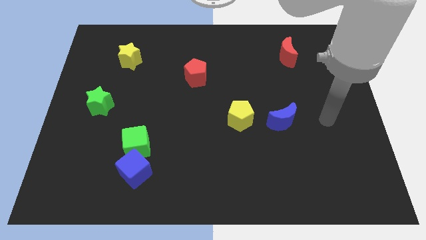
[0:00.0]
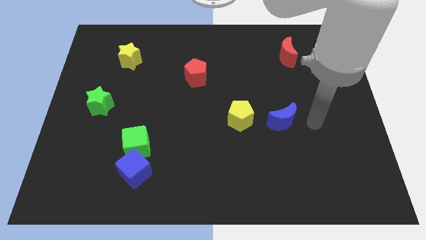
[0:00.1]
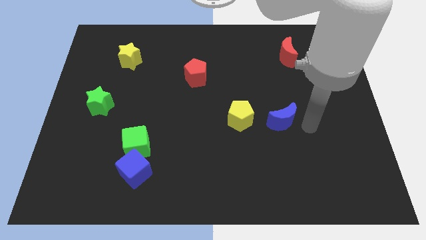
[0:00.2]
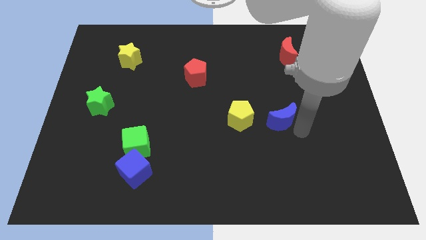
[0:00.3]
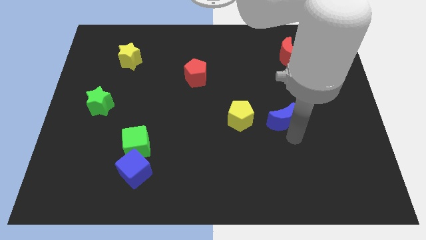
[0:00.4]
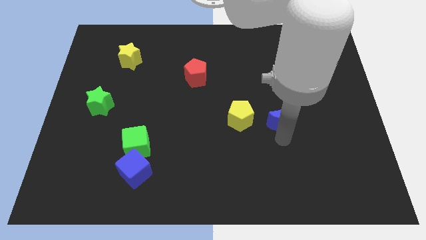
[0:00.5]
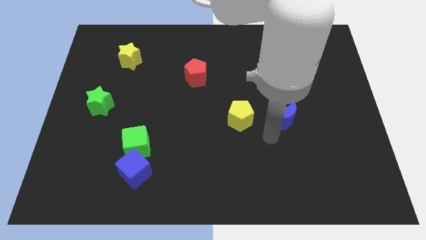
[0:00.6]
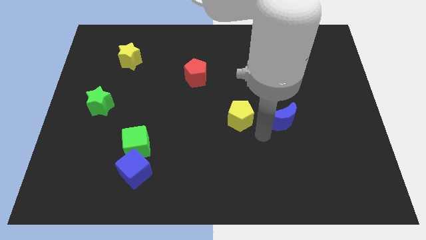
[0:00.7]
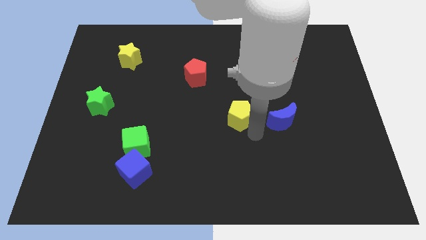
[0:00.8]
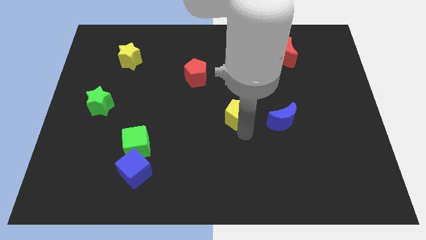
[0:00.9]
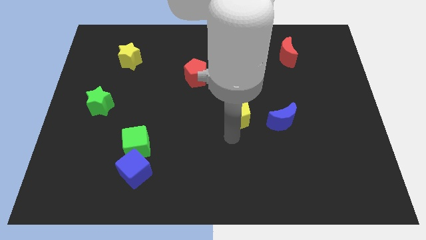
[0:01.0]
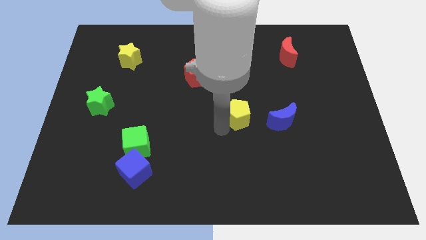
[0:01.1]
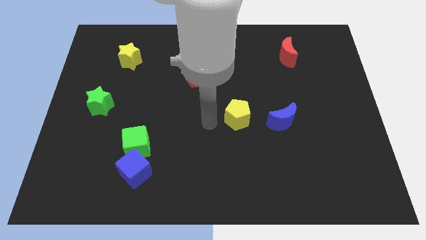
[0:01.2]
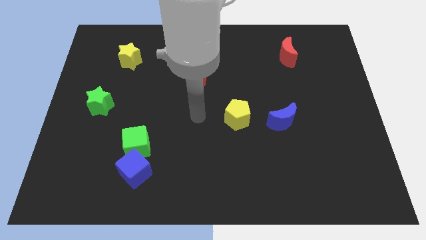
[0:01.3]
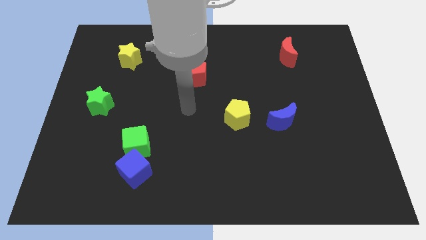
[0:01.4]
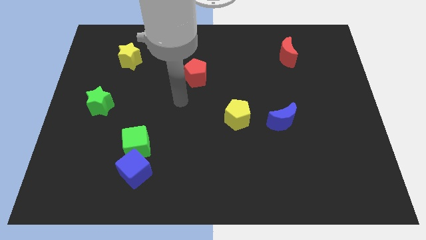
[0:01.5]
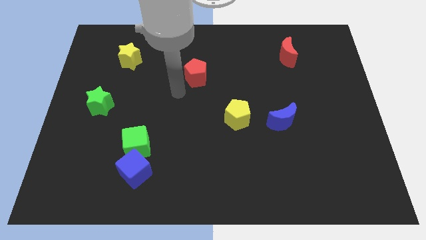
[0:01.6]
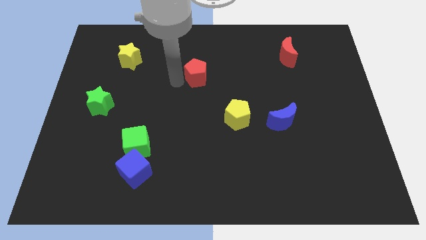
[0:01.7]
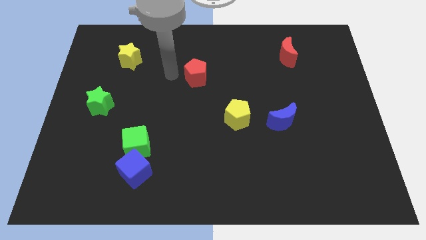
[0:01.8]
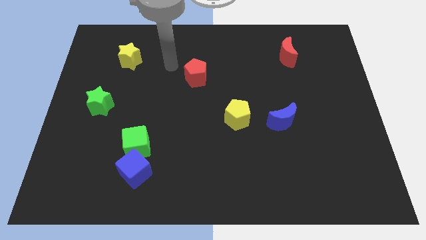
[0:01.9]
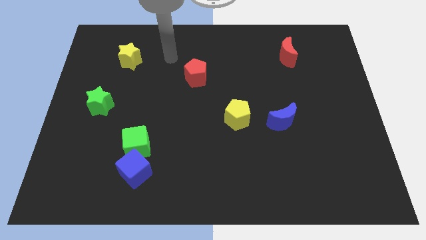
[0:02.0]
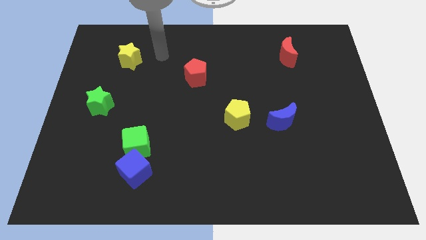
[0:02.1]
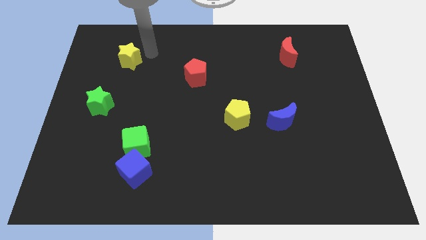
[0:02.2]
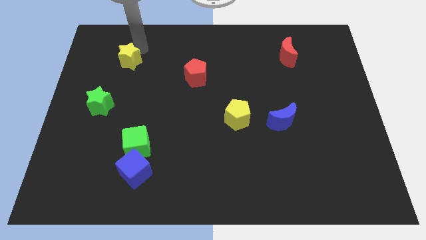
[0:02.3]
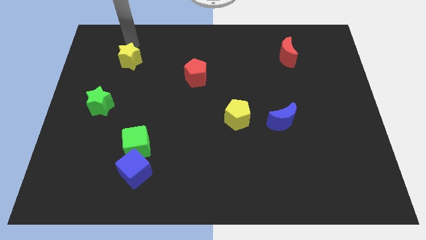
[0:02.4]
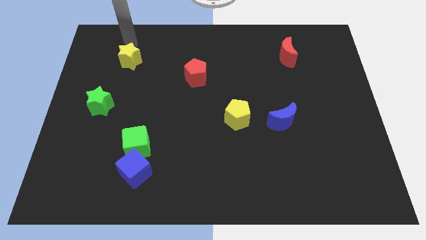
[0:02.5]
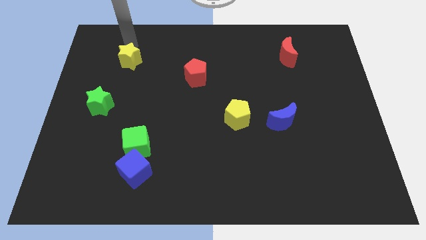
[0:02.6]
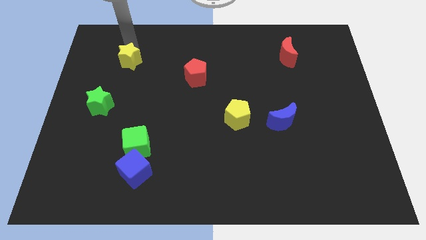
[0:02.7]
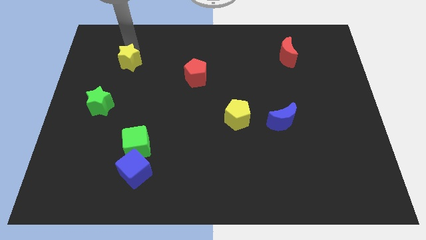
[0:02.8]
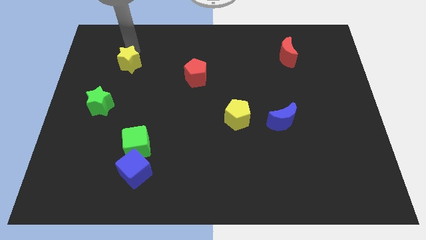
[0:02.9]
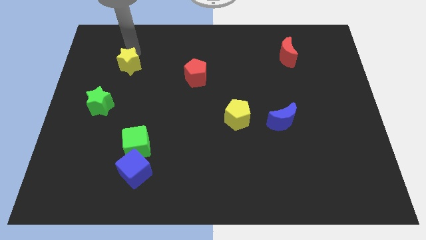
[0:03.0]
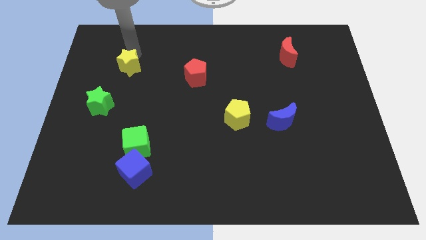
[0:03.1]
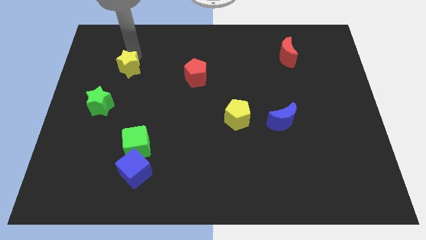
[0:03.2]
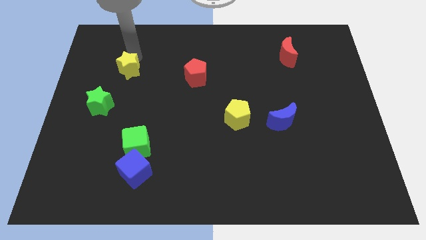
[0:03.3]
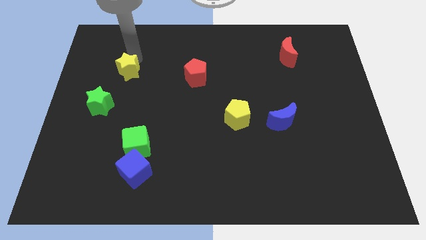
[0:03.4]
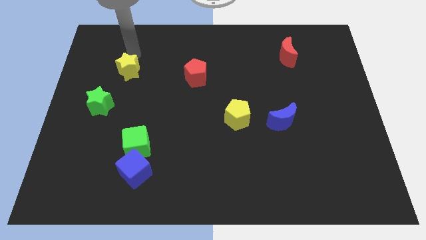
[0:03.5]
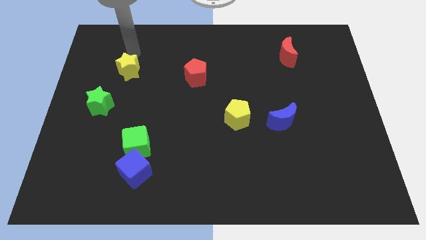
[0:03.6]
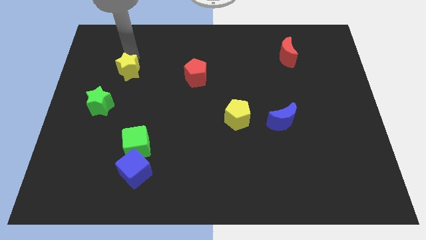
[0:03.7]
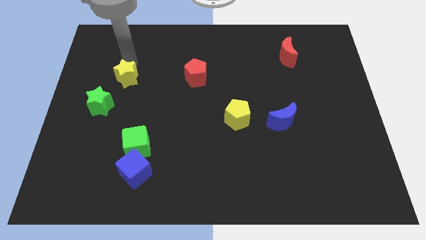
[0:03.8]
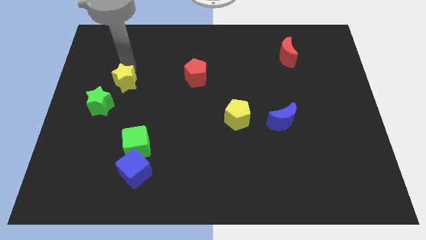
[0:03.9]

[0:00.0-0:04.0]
slide the yellow star somewhat down

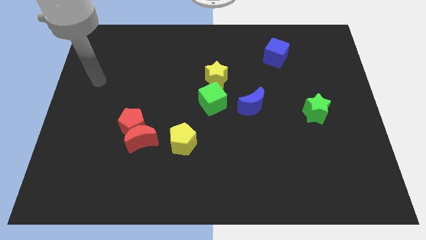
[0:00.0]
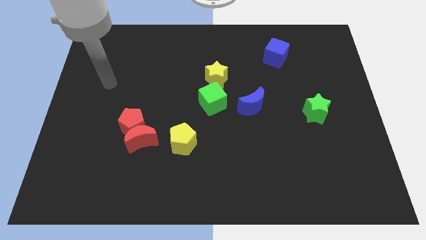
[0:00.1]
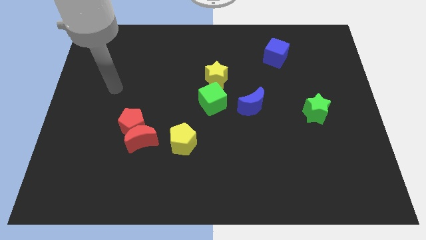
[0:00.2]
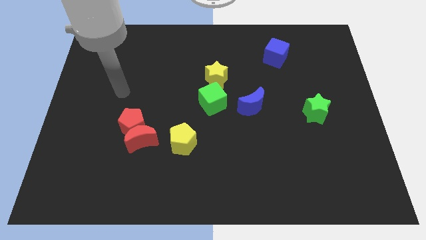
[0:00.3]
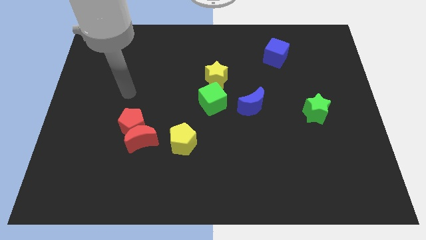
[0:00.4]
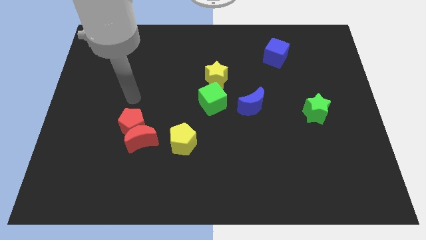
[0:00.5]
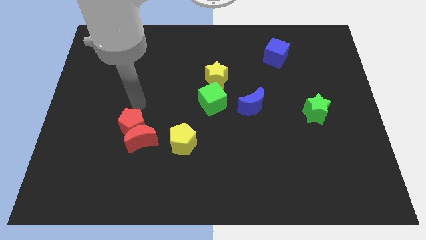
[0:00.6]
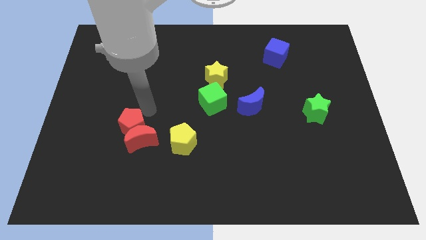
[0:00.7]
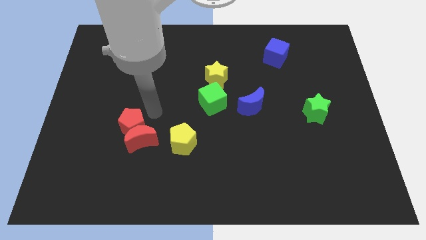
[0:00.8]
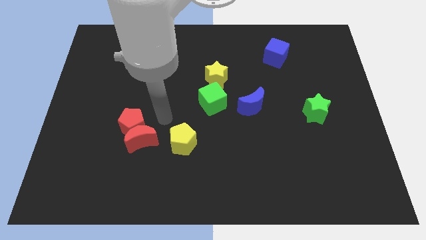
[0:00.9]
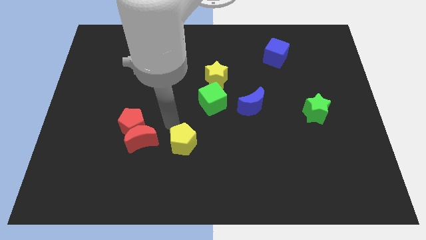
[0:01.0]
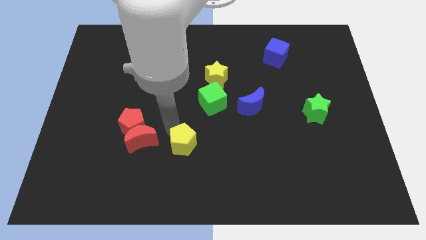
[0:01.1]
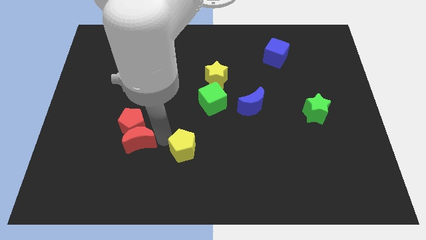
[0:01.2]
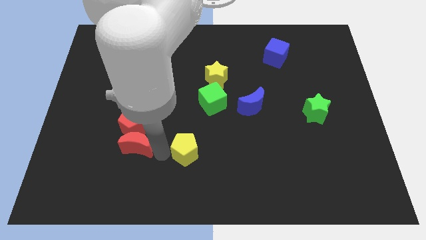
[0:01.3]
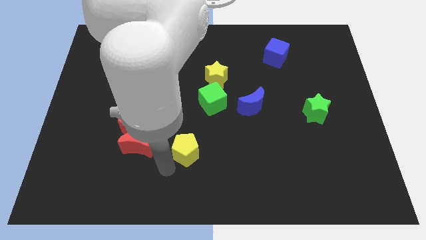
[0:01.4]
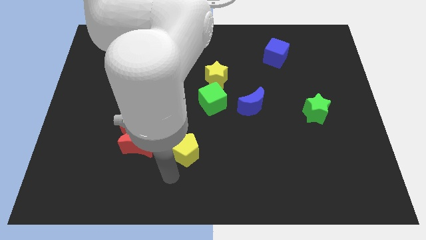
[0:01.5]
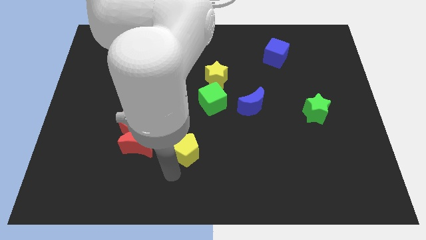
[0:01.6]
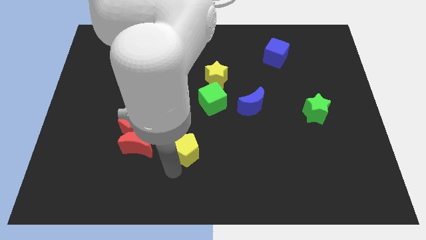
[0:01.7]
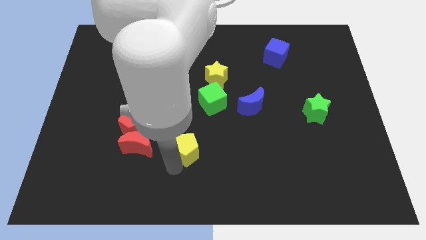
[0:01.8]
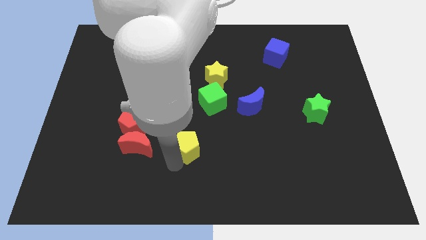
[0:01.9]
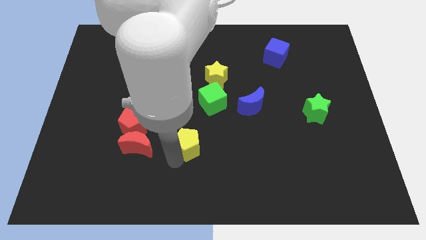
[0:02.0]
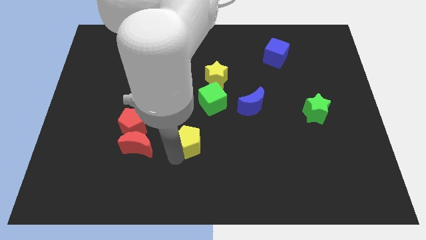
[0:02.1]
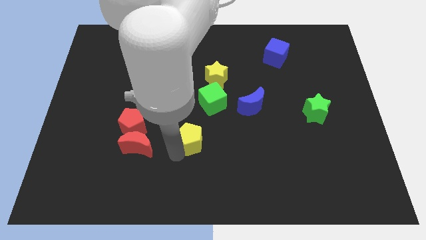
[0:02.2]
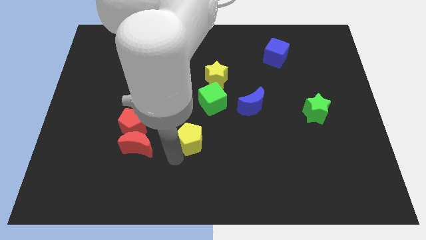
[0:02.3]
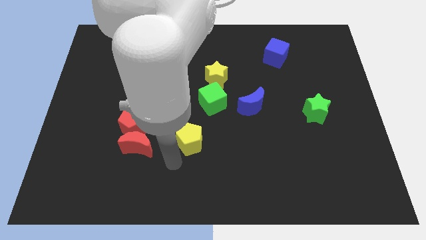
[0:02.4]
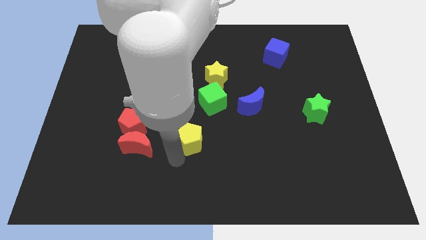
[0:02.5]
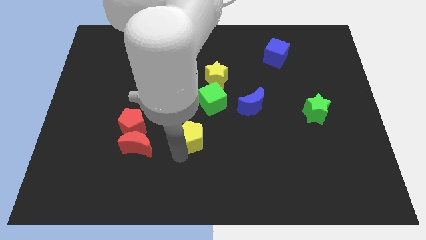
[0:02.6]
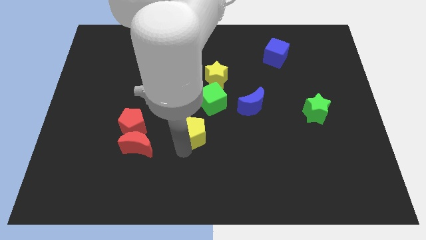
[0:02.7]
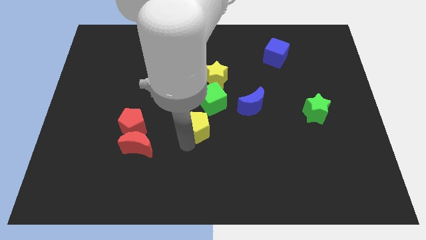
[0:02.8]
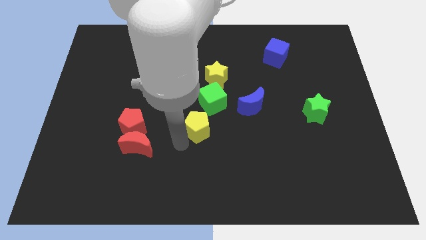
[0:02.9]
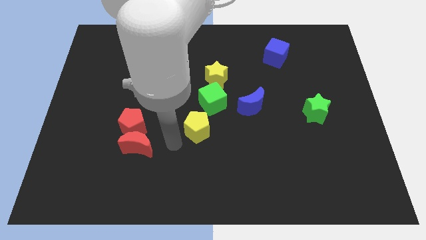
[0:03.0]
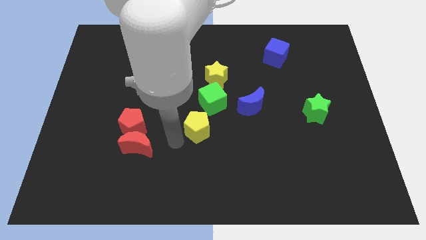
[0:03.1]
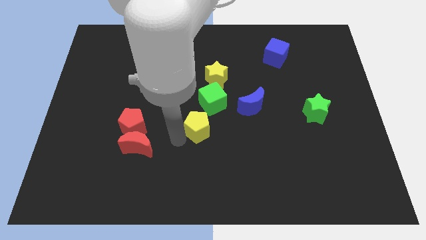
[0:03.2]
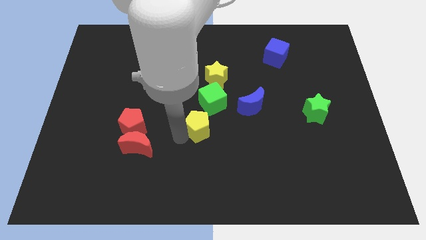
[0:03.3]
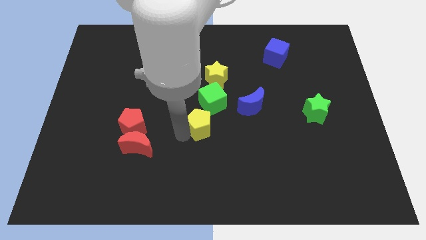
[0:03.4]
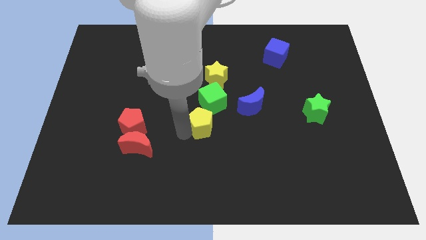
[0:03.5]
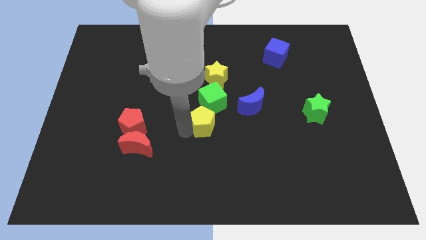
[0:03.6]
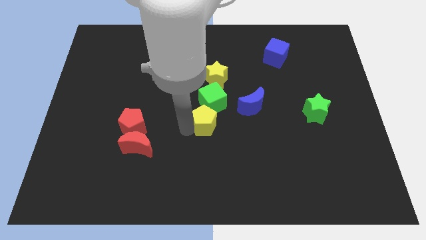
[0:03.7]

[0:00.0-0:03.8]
slide the yellow pentagon up and to the right somewhat

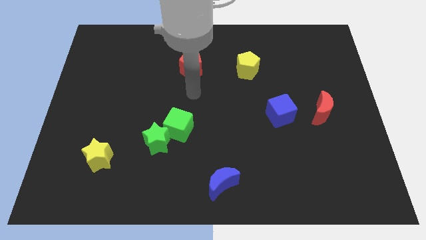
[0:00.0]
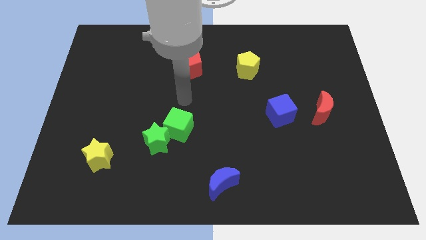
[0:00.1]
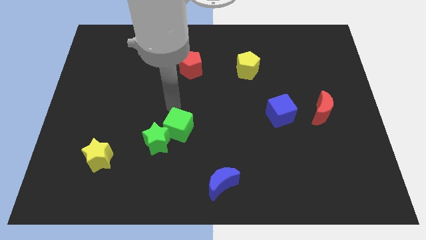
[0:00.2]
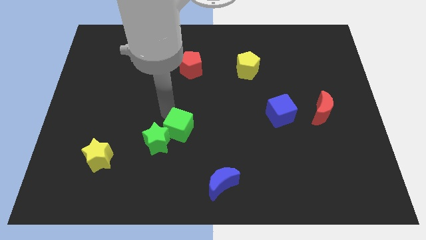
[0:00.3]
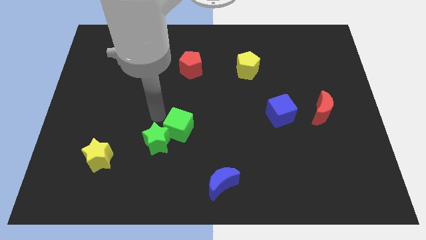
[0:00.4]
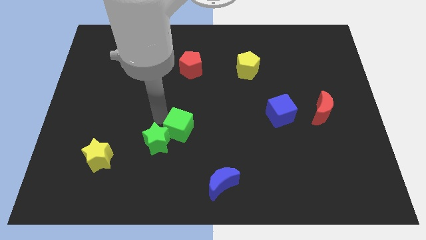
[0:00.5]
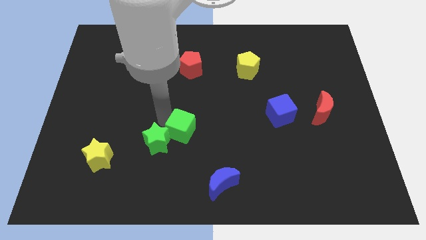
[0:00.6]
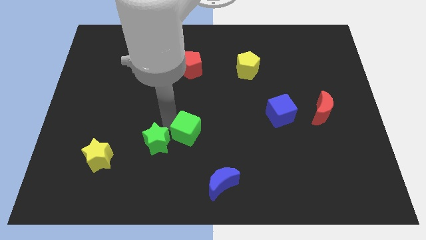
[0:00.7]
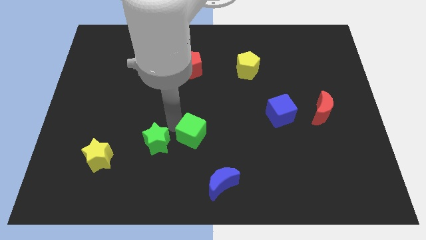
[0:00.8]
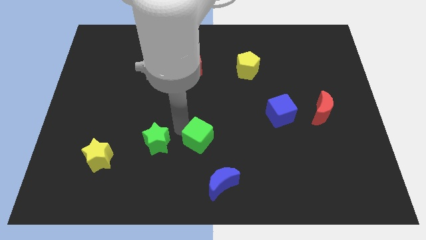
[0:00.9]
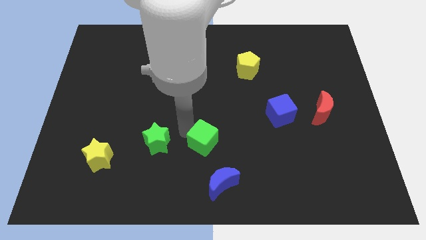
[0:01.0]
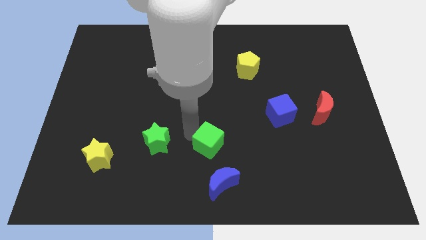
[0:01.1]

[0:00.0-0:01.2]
push the green cube diagonally downwards and to the right somewhat
